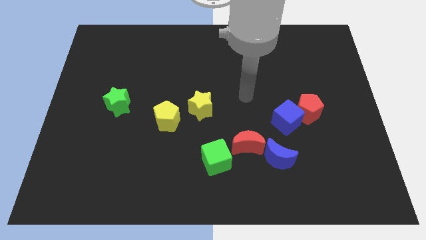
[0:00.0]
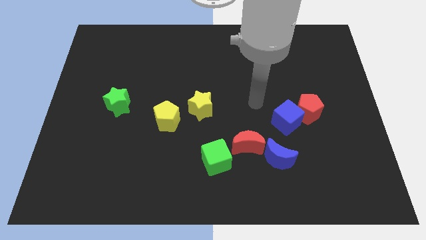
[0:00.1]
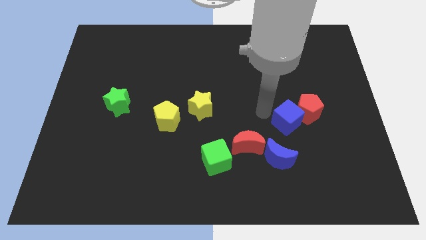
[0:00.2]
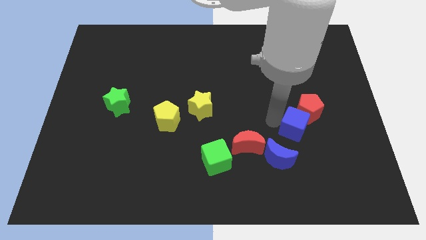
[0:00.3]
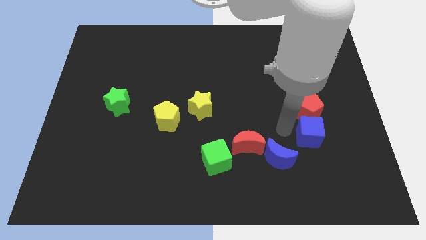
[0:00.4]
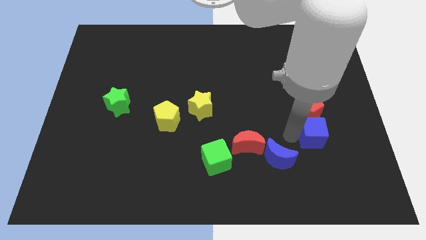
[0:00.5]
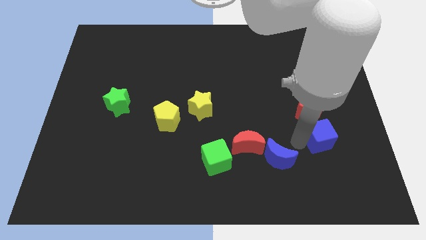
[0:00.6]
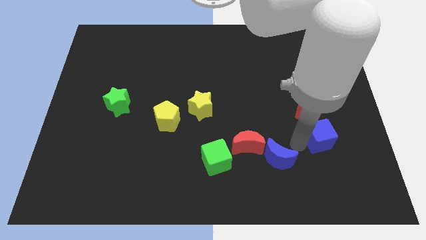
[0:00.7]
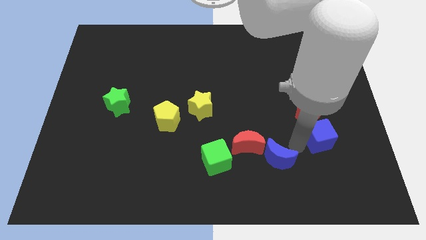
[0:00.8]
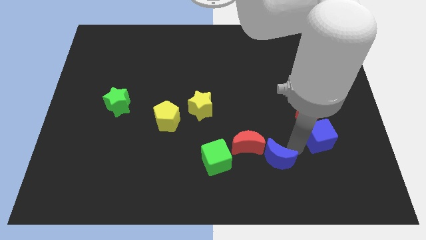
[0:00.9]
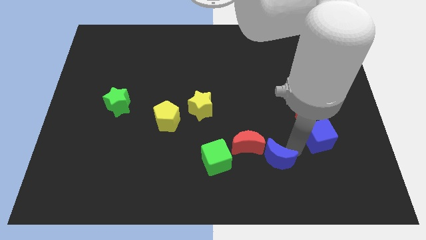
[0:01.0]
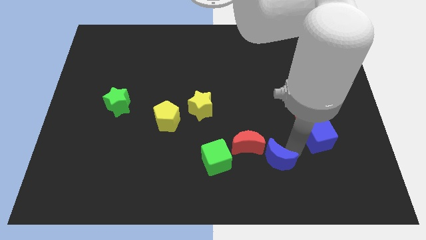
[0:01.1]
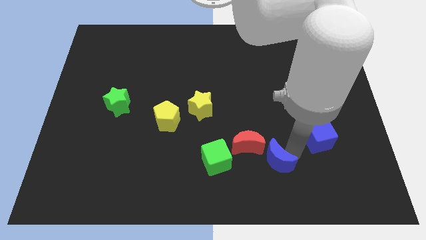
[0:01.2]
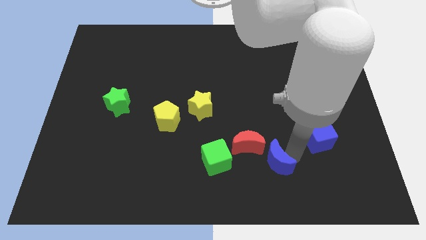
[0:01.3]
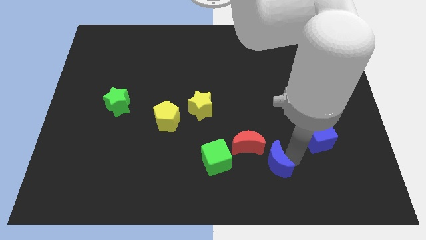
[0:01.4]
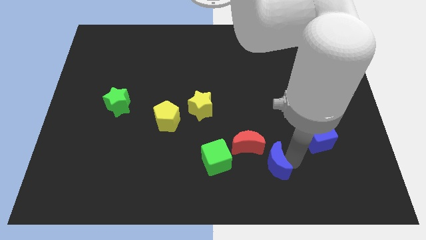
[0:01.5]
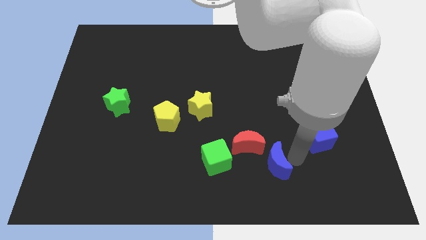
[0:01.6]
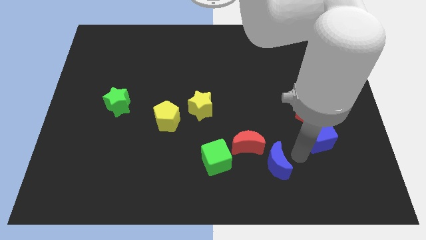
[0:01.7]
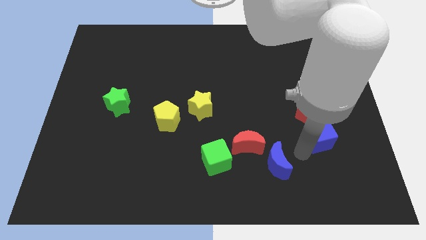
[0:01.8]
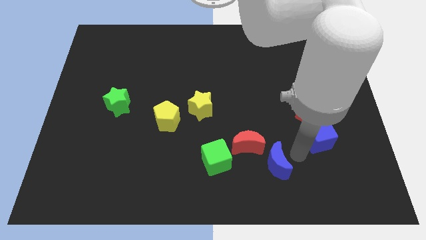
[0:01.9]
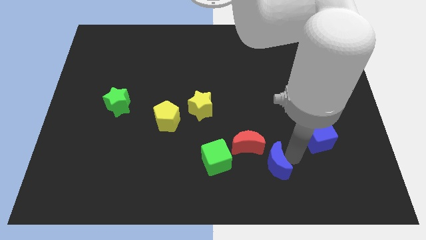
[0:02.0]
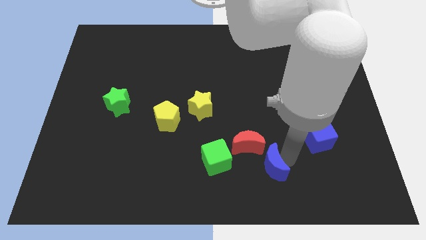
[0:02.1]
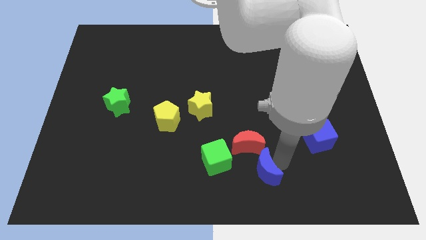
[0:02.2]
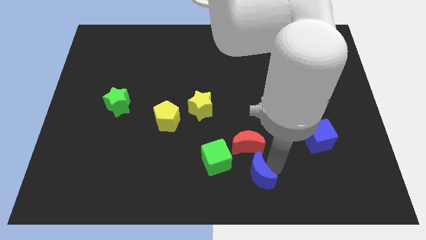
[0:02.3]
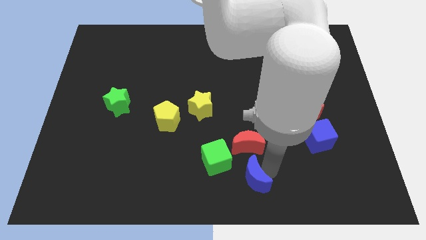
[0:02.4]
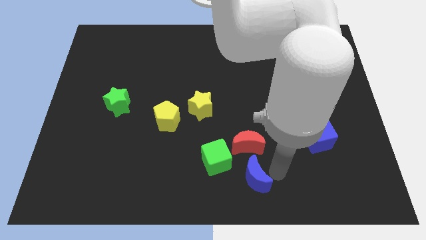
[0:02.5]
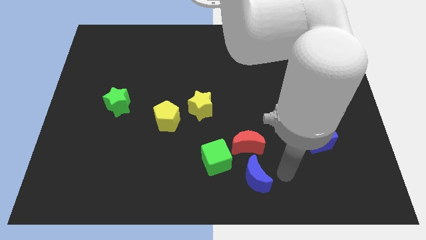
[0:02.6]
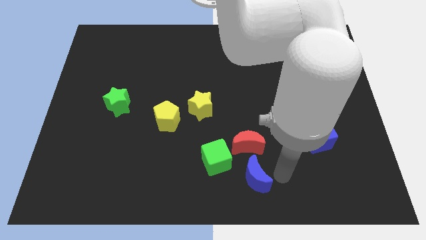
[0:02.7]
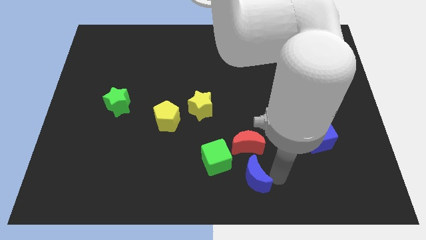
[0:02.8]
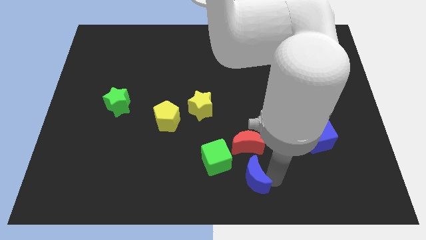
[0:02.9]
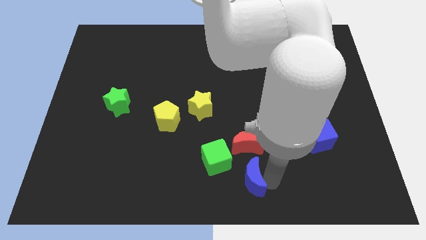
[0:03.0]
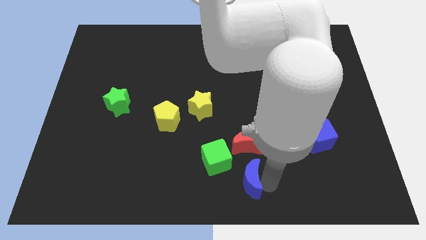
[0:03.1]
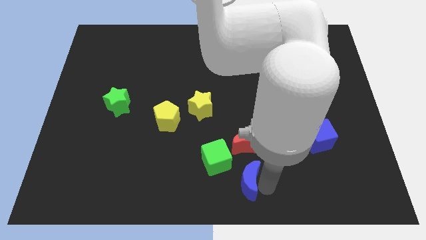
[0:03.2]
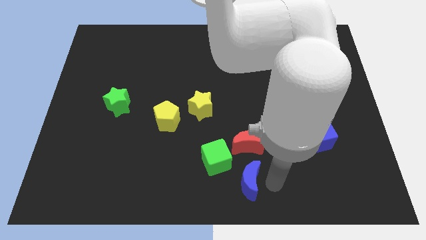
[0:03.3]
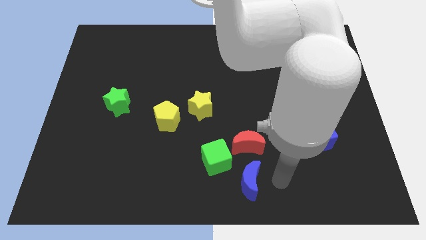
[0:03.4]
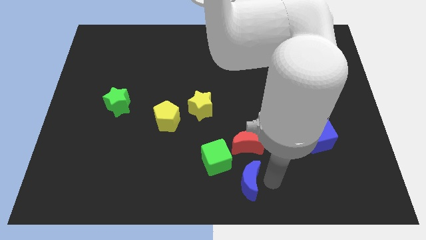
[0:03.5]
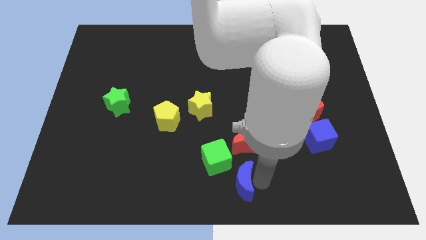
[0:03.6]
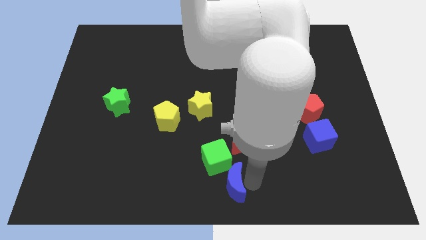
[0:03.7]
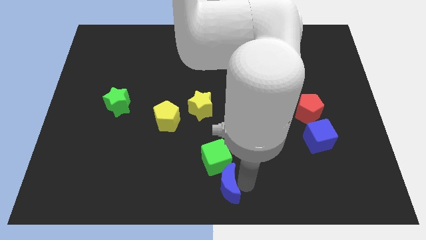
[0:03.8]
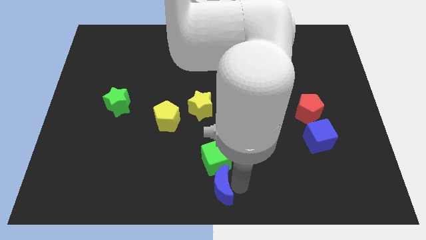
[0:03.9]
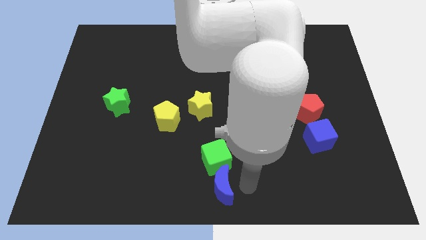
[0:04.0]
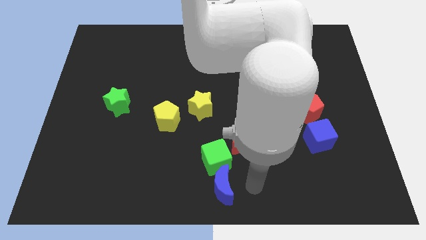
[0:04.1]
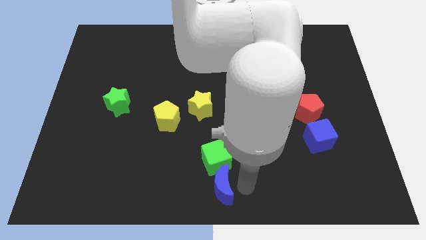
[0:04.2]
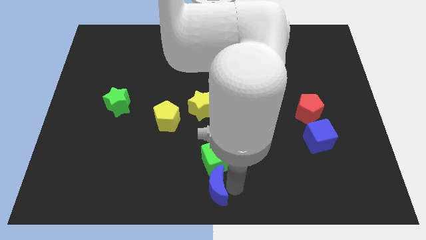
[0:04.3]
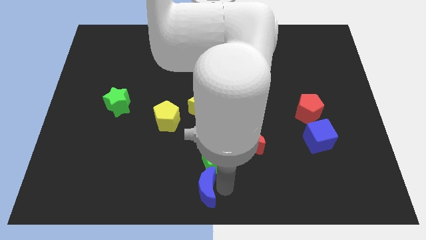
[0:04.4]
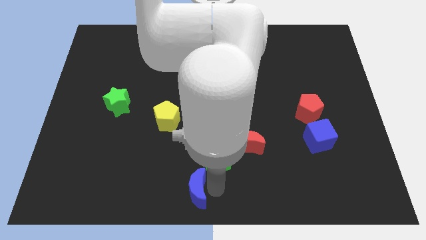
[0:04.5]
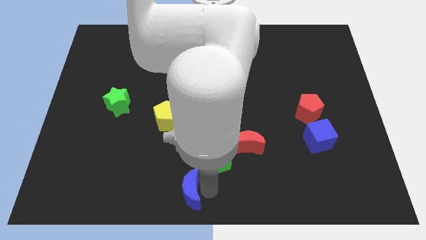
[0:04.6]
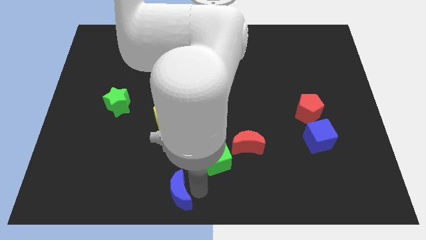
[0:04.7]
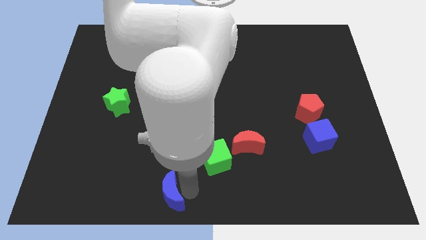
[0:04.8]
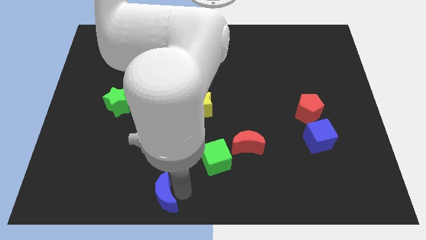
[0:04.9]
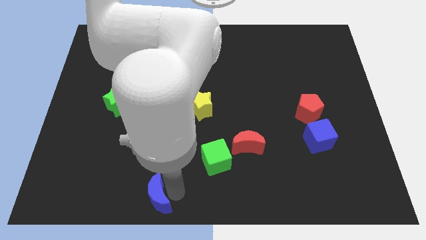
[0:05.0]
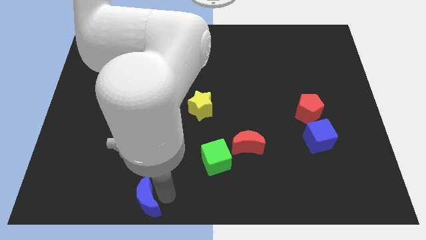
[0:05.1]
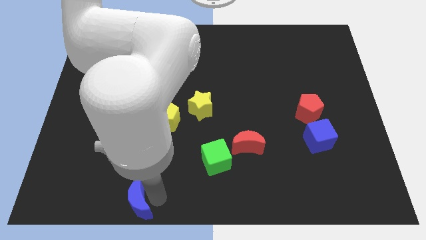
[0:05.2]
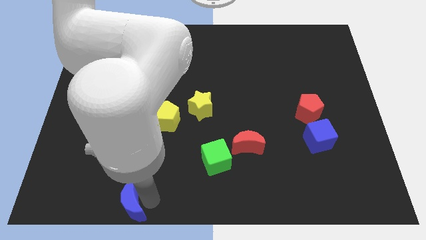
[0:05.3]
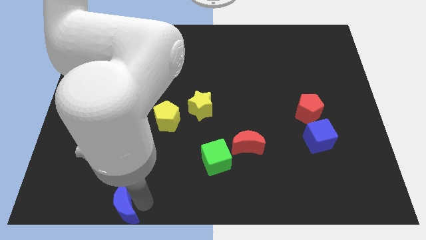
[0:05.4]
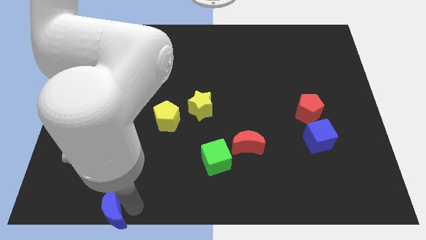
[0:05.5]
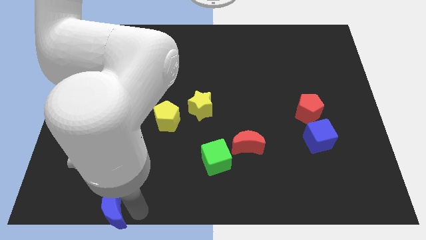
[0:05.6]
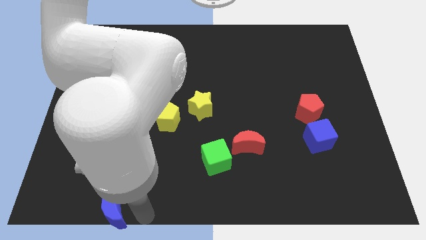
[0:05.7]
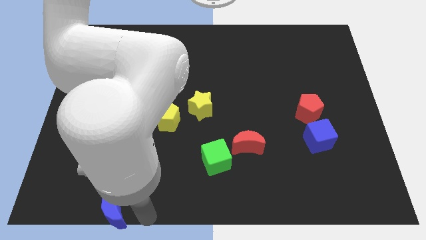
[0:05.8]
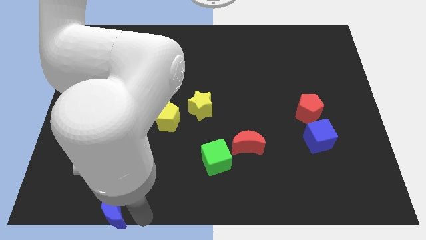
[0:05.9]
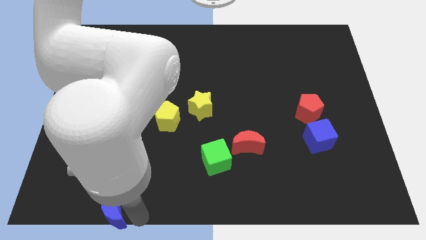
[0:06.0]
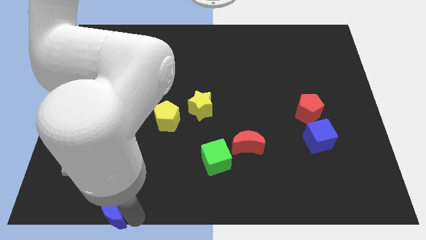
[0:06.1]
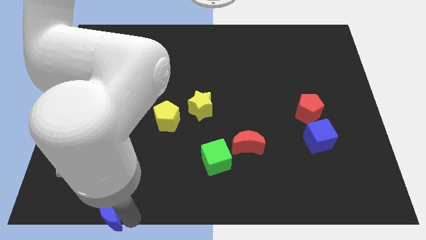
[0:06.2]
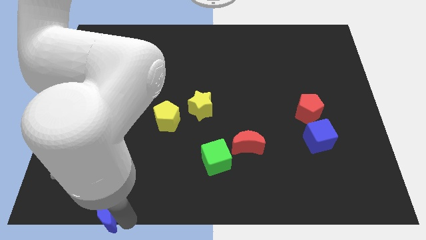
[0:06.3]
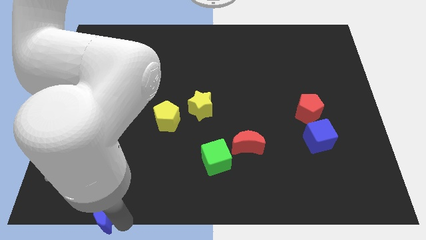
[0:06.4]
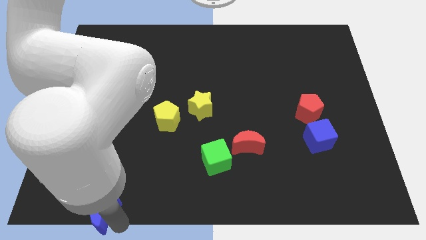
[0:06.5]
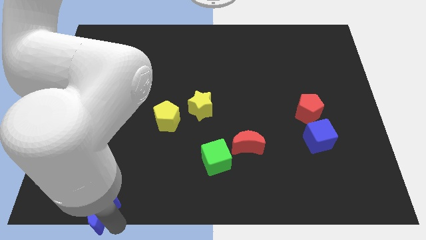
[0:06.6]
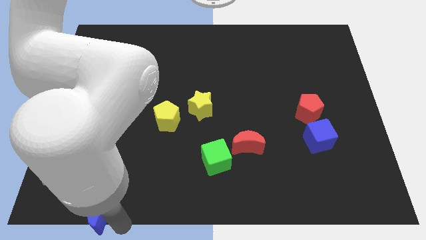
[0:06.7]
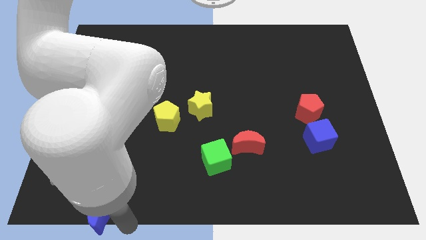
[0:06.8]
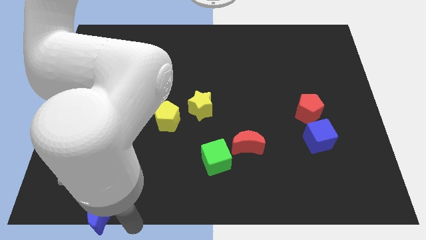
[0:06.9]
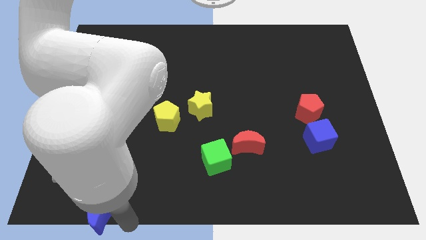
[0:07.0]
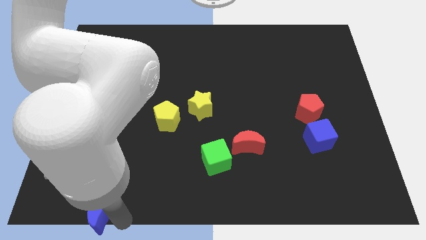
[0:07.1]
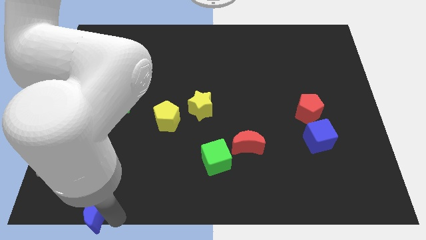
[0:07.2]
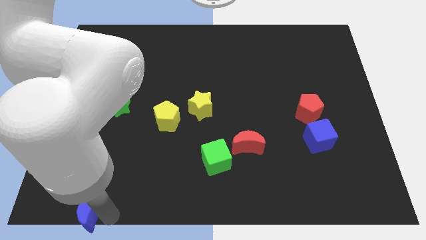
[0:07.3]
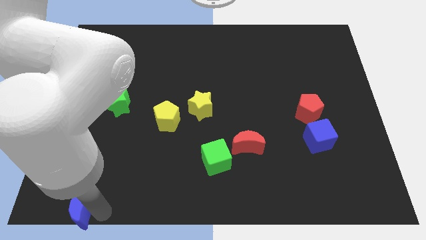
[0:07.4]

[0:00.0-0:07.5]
put the blue moon to the bottom left of the board
